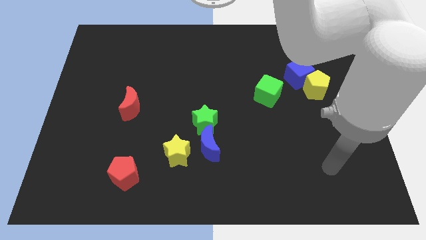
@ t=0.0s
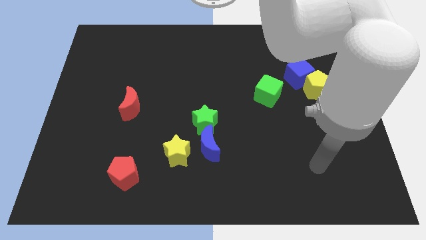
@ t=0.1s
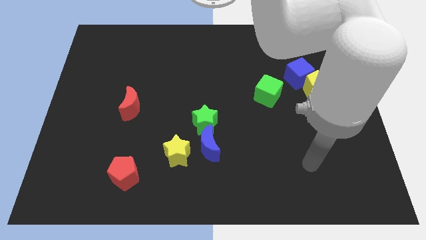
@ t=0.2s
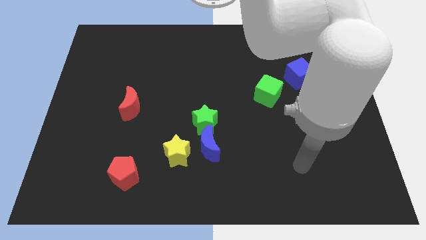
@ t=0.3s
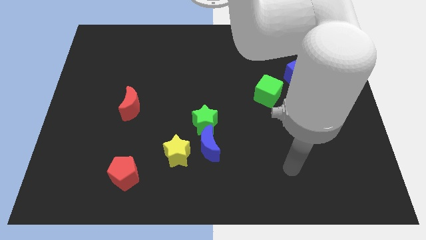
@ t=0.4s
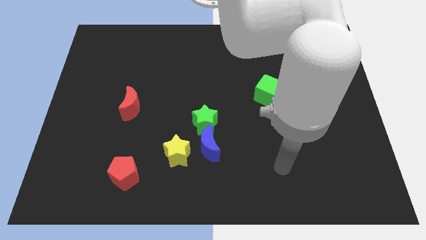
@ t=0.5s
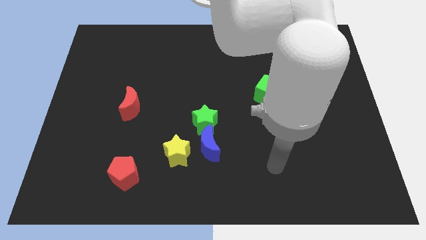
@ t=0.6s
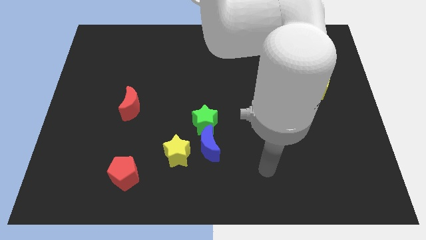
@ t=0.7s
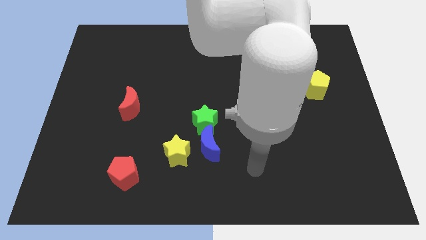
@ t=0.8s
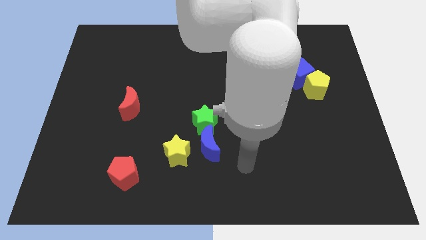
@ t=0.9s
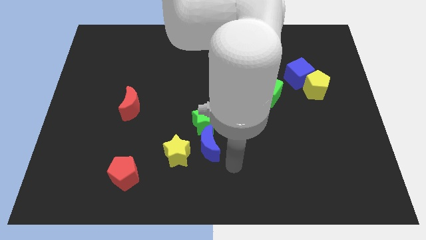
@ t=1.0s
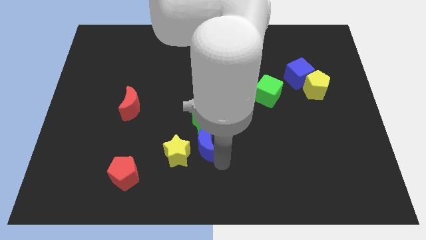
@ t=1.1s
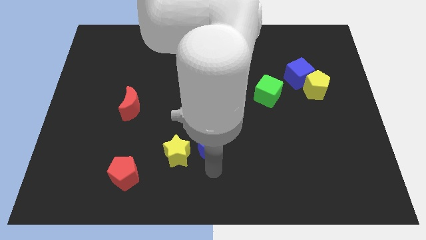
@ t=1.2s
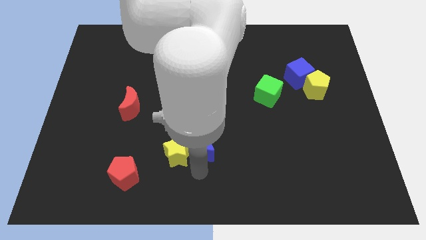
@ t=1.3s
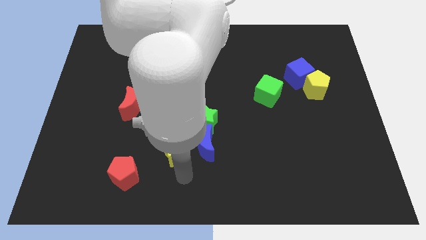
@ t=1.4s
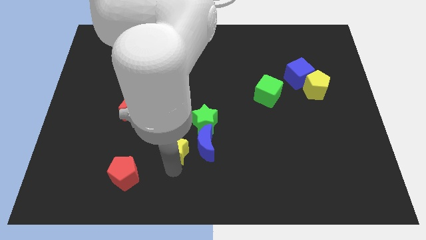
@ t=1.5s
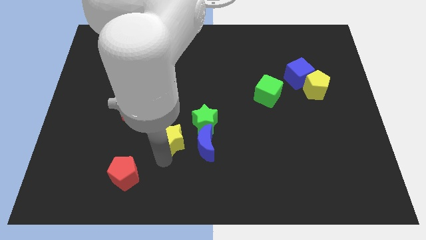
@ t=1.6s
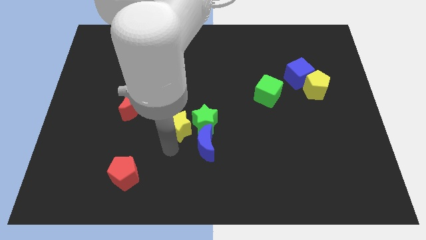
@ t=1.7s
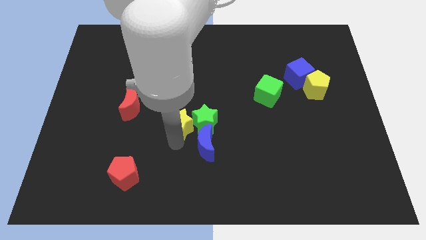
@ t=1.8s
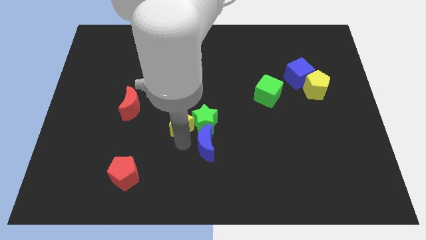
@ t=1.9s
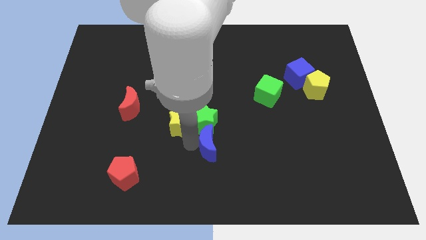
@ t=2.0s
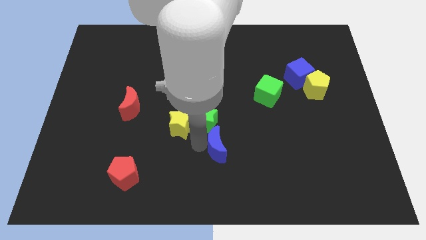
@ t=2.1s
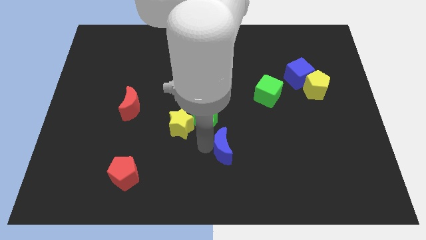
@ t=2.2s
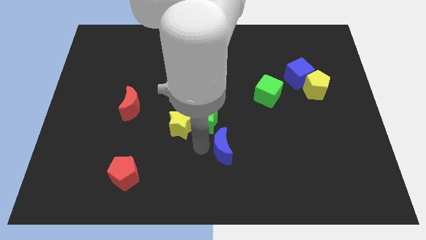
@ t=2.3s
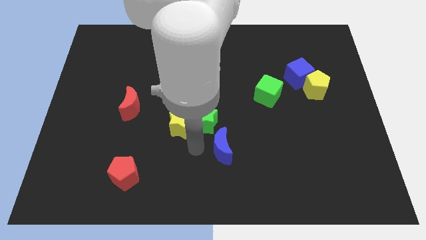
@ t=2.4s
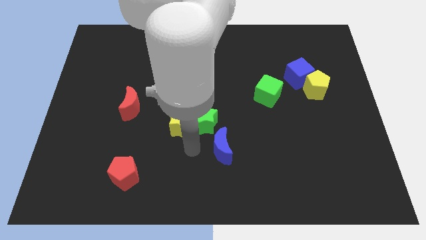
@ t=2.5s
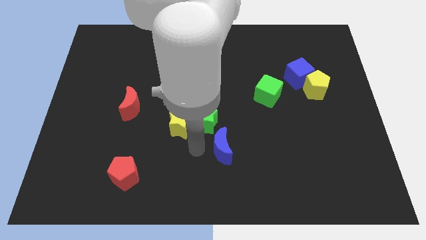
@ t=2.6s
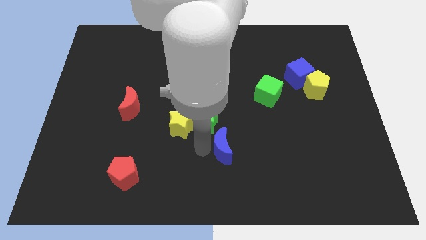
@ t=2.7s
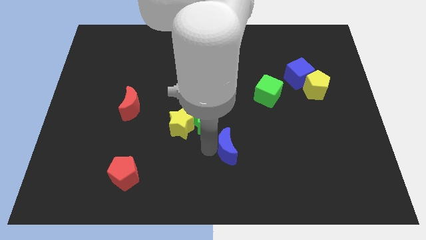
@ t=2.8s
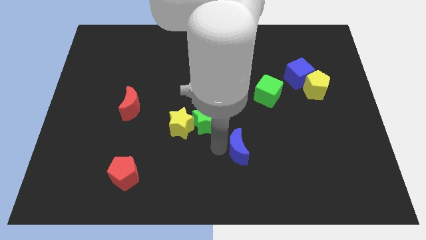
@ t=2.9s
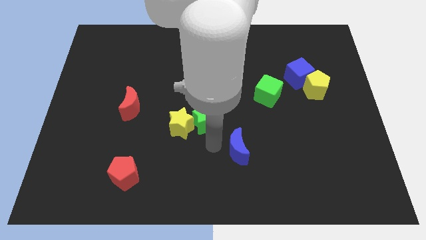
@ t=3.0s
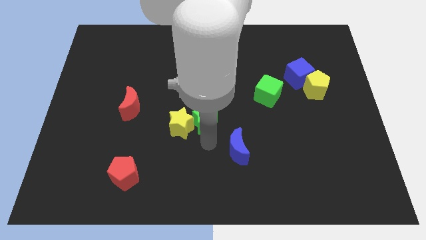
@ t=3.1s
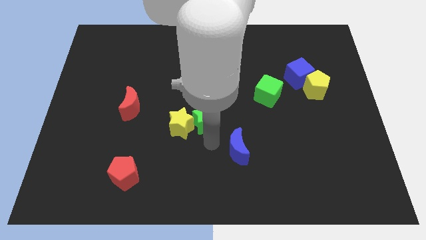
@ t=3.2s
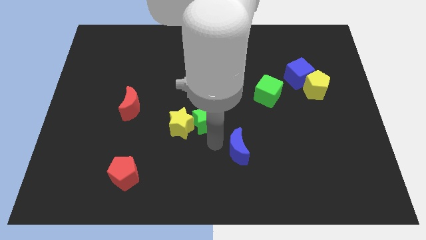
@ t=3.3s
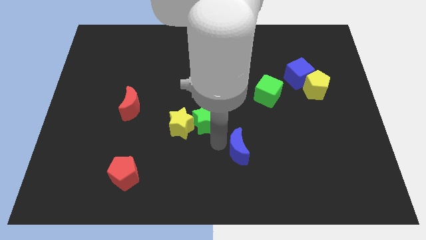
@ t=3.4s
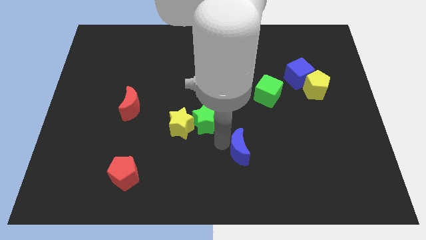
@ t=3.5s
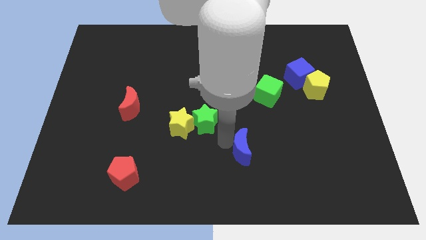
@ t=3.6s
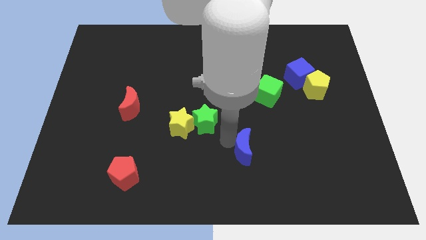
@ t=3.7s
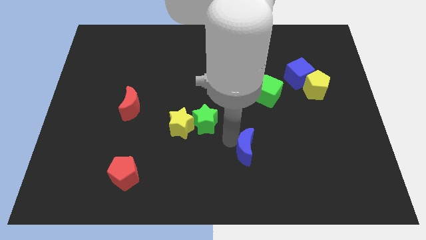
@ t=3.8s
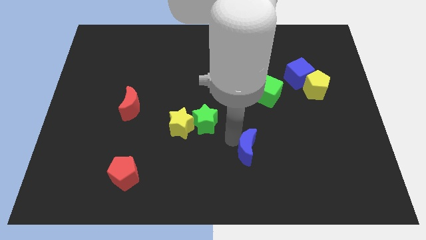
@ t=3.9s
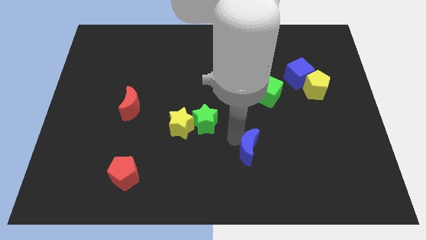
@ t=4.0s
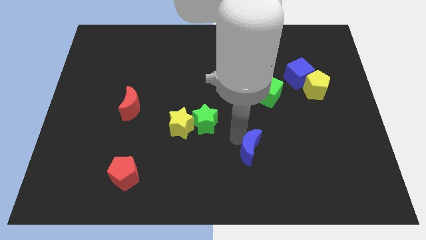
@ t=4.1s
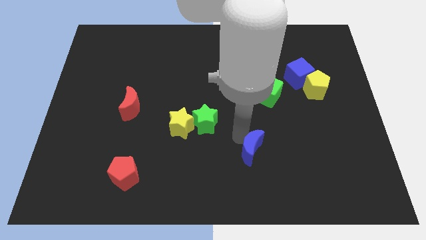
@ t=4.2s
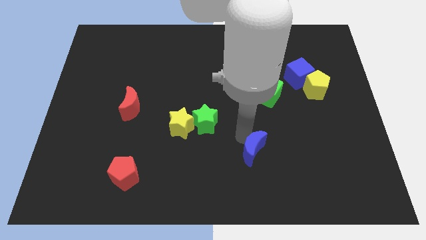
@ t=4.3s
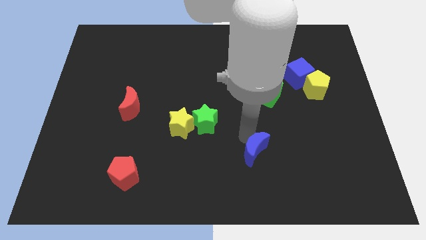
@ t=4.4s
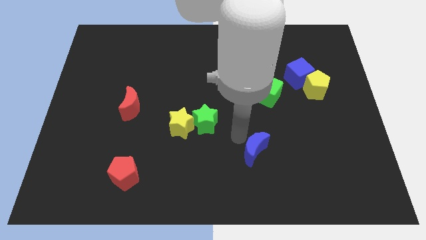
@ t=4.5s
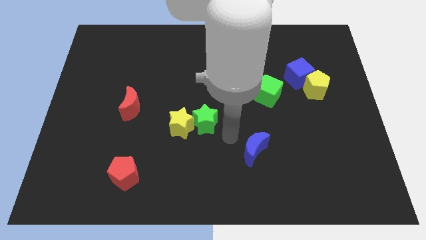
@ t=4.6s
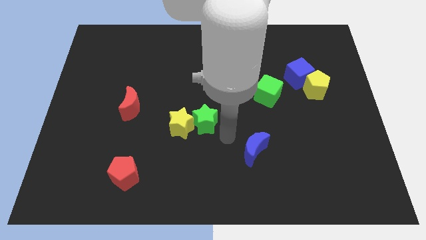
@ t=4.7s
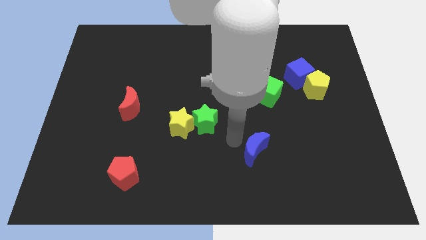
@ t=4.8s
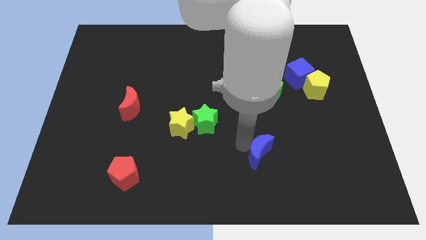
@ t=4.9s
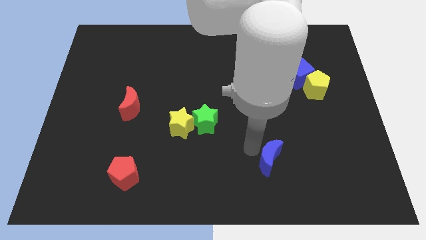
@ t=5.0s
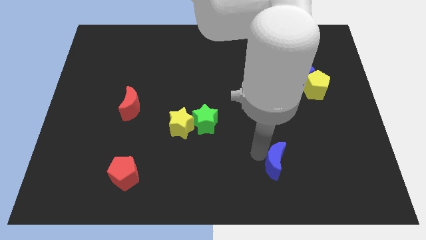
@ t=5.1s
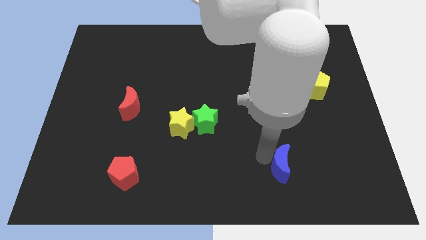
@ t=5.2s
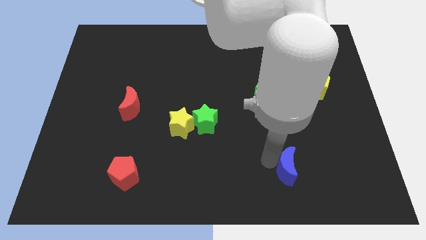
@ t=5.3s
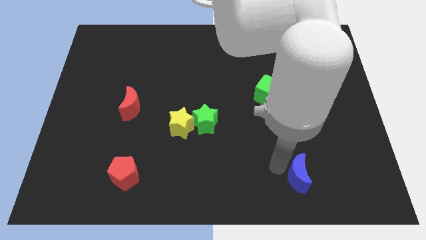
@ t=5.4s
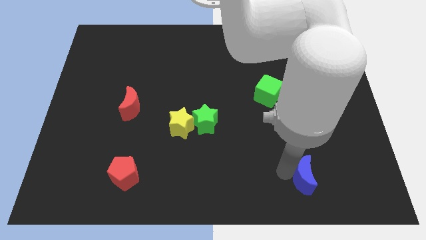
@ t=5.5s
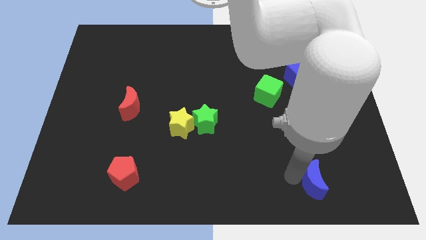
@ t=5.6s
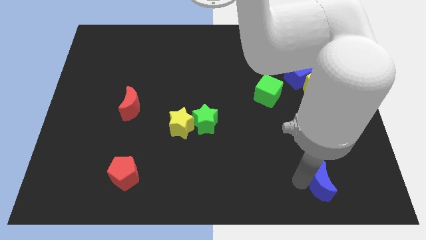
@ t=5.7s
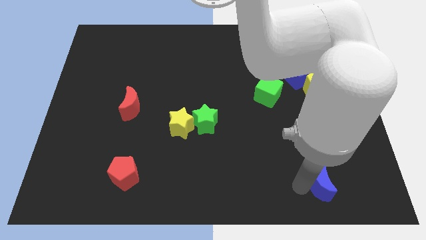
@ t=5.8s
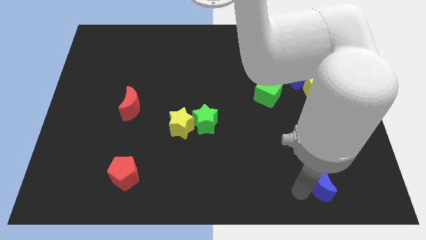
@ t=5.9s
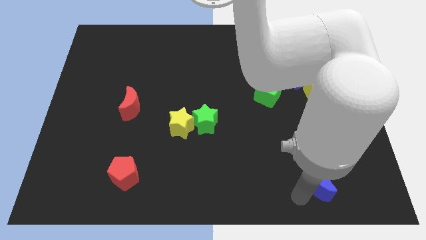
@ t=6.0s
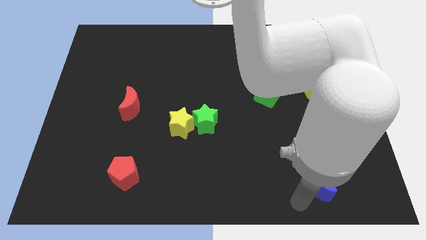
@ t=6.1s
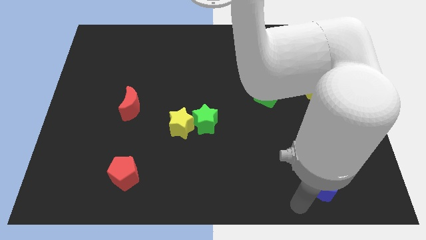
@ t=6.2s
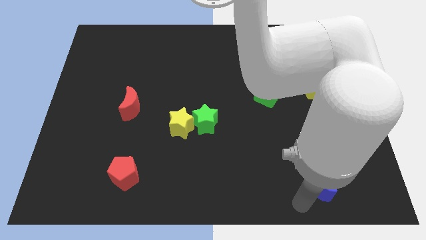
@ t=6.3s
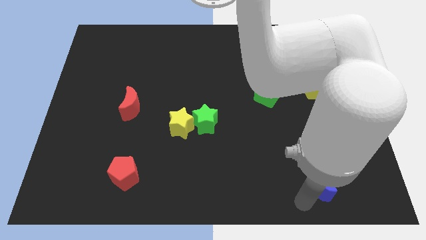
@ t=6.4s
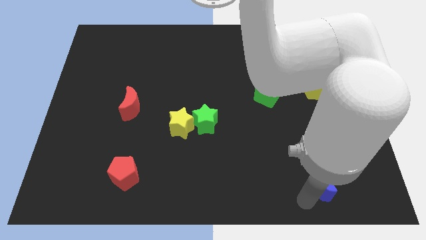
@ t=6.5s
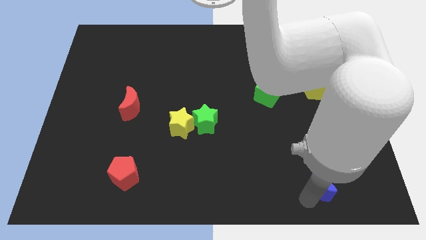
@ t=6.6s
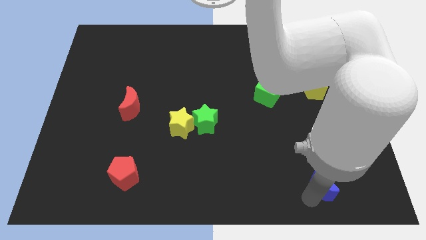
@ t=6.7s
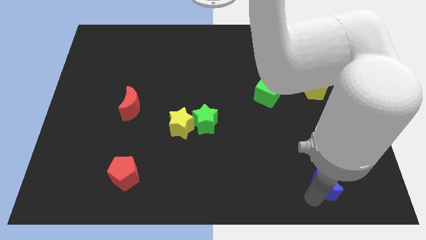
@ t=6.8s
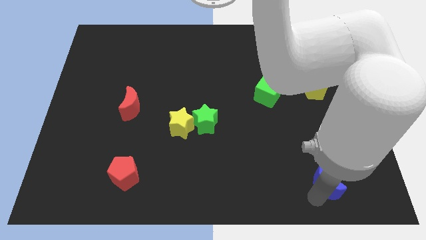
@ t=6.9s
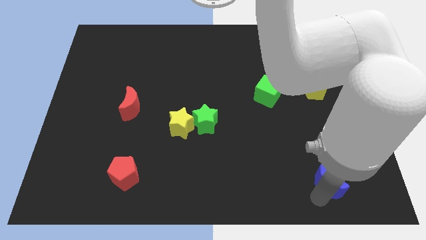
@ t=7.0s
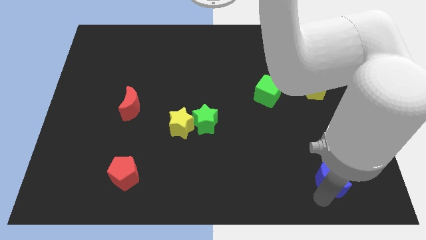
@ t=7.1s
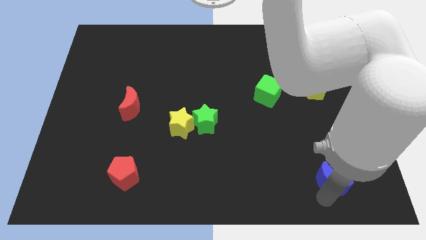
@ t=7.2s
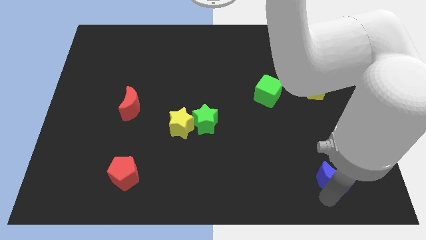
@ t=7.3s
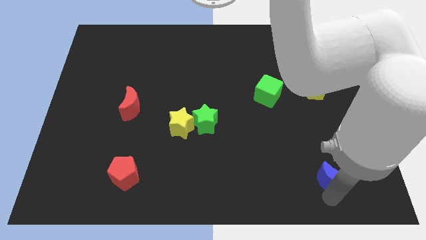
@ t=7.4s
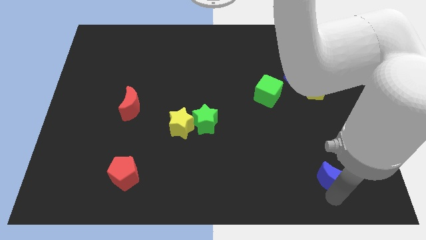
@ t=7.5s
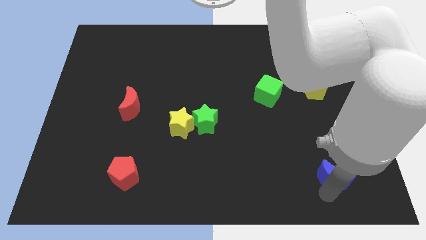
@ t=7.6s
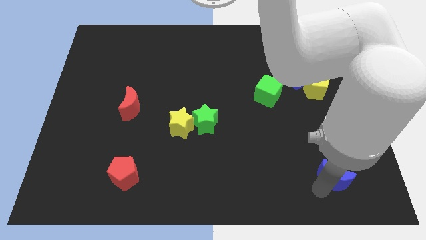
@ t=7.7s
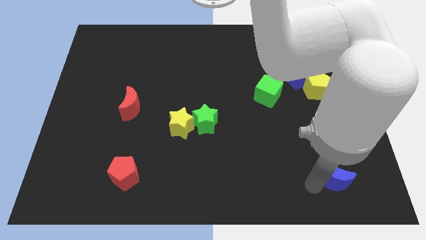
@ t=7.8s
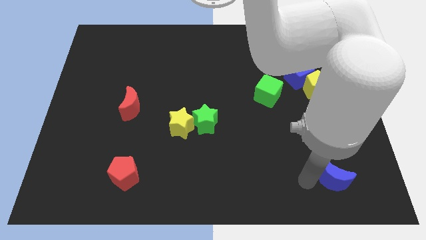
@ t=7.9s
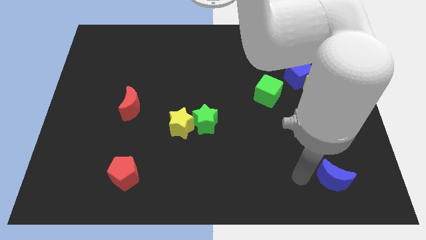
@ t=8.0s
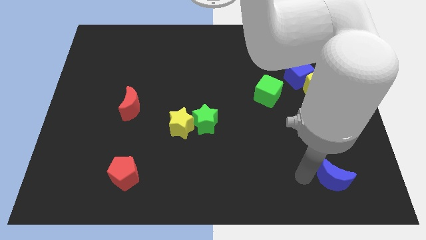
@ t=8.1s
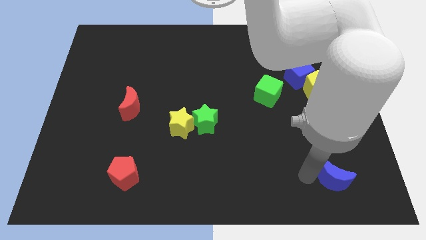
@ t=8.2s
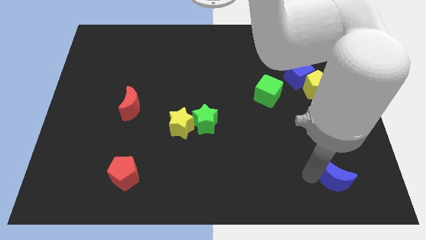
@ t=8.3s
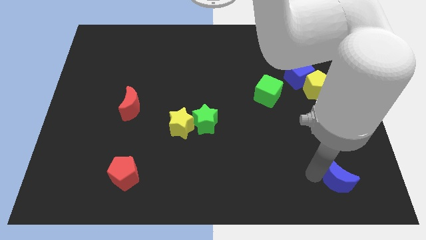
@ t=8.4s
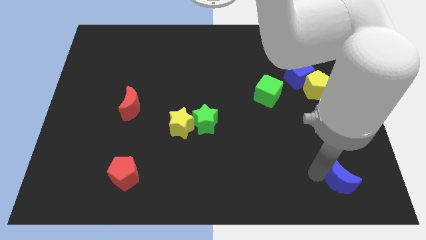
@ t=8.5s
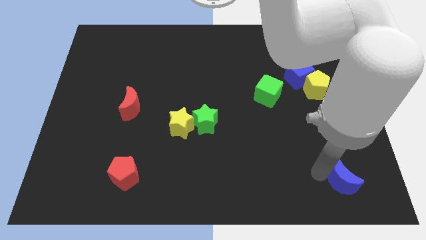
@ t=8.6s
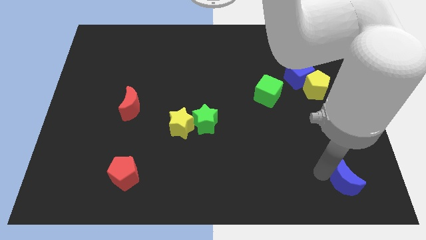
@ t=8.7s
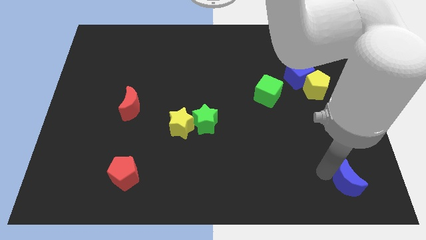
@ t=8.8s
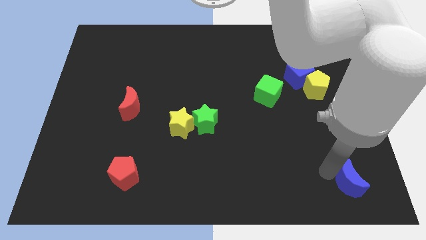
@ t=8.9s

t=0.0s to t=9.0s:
push the blue moon to the bottom right corner
